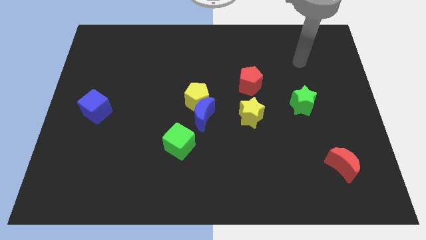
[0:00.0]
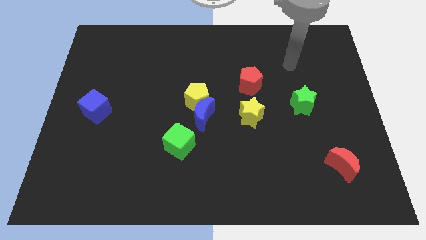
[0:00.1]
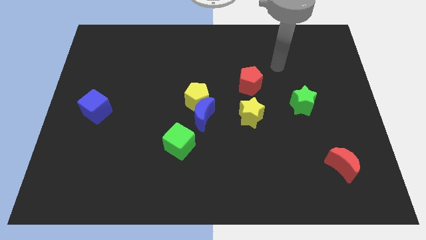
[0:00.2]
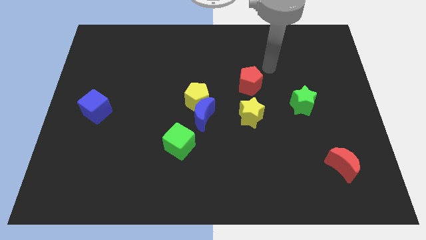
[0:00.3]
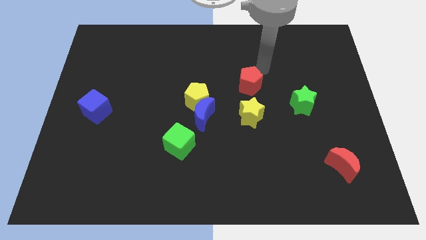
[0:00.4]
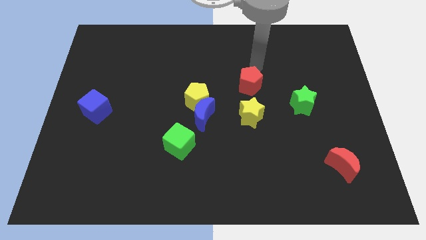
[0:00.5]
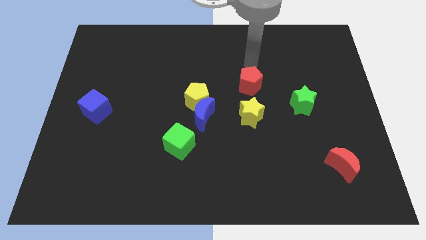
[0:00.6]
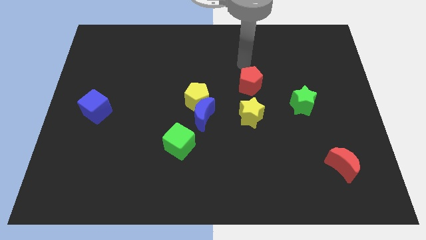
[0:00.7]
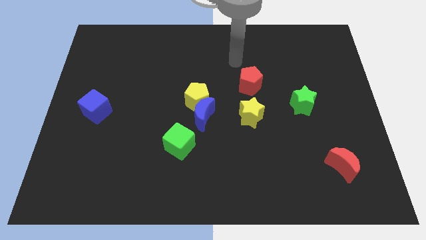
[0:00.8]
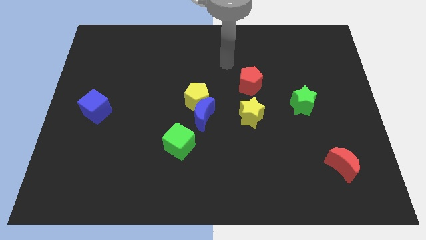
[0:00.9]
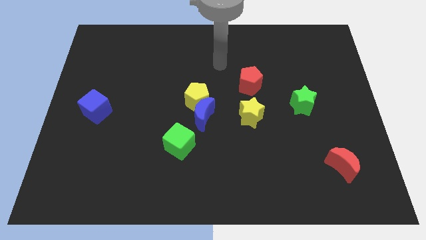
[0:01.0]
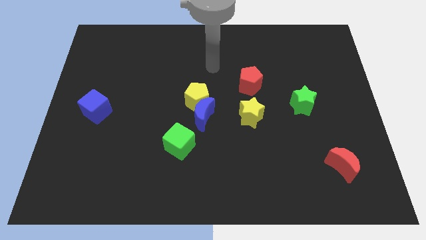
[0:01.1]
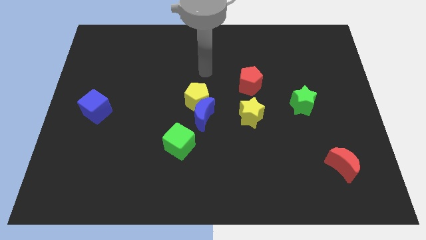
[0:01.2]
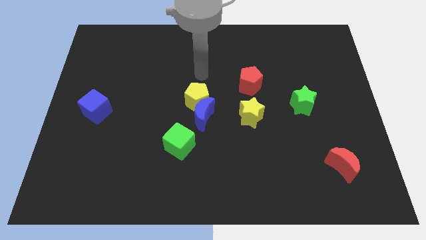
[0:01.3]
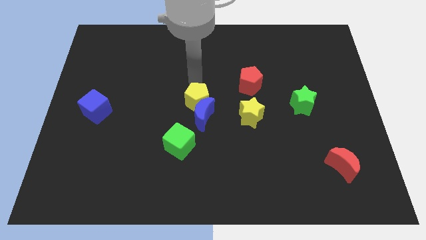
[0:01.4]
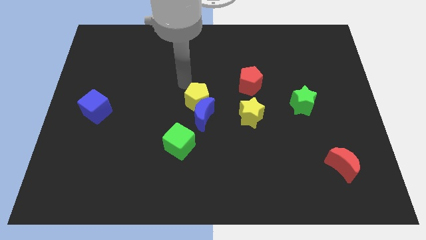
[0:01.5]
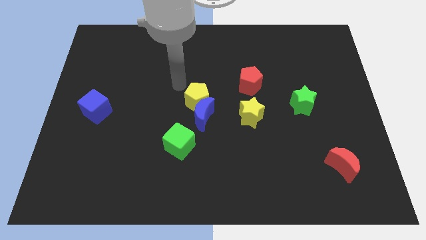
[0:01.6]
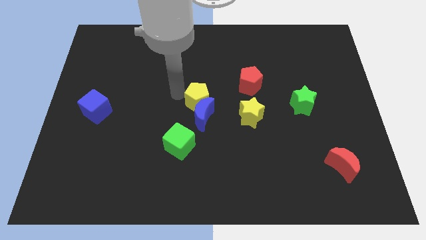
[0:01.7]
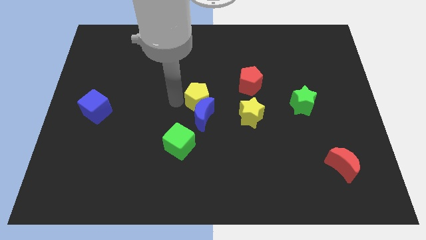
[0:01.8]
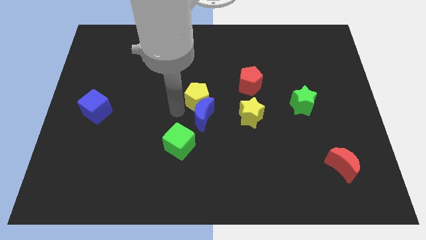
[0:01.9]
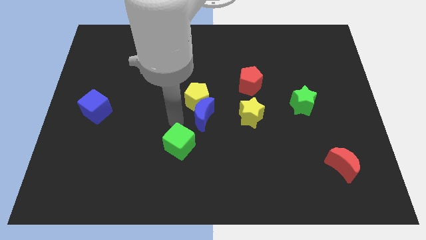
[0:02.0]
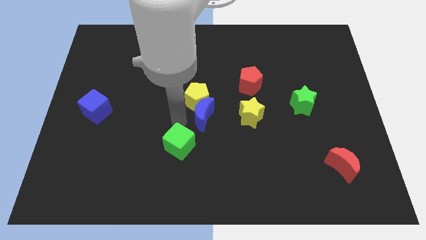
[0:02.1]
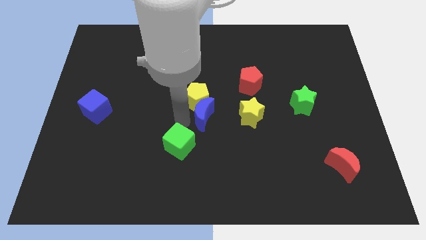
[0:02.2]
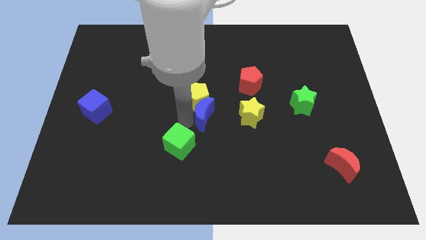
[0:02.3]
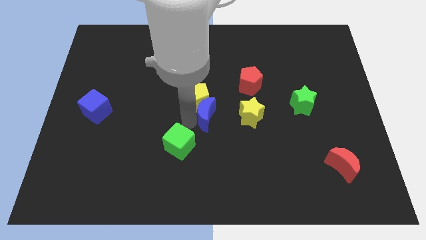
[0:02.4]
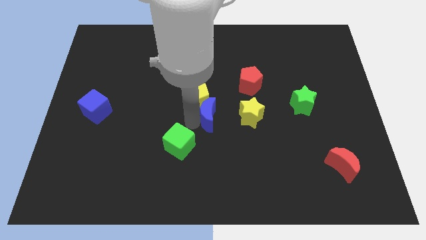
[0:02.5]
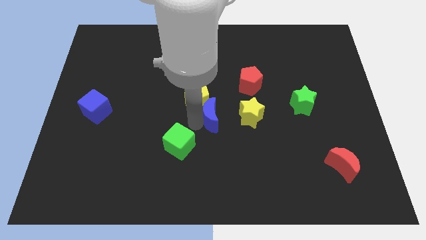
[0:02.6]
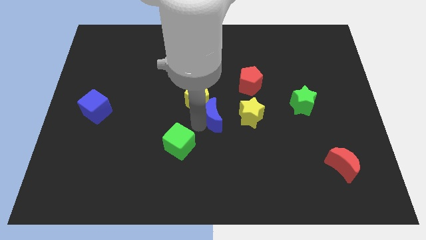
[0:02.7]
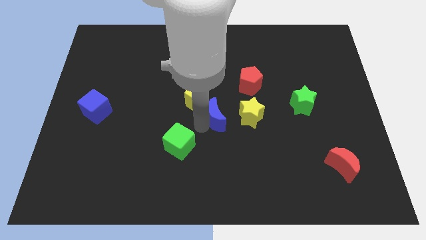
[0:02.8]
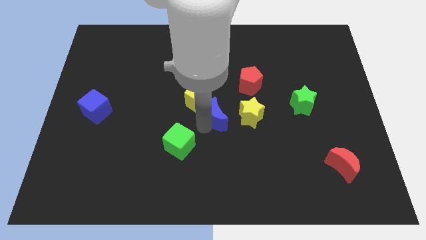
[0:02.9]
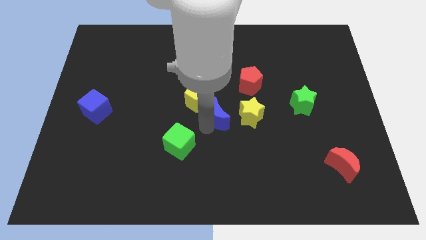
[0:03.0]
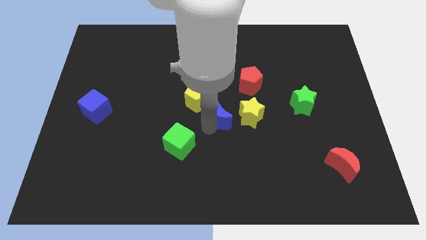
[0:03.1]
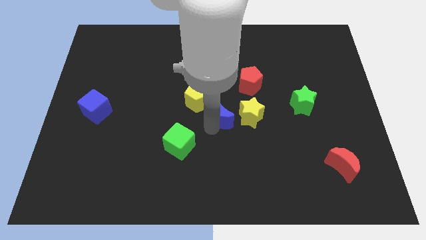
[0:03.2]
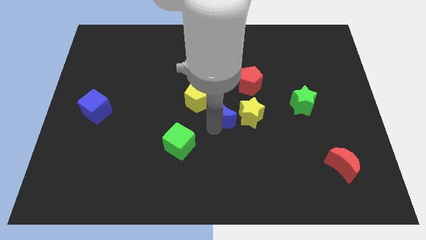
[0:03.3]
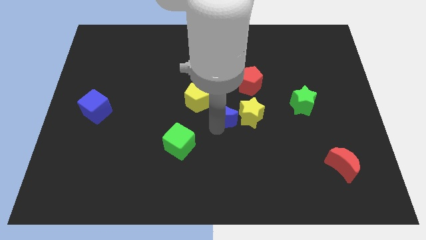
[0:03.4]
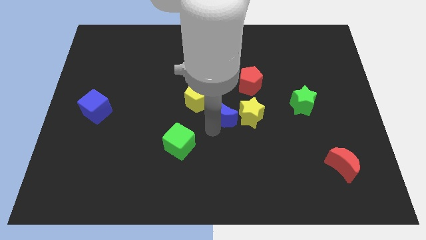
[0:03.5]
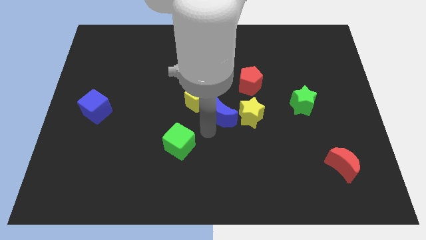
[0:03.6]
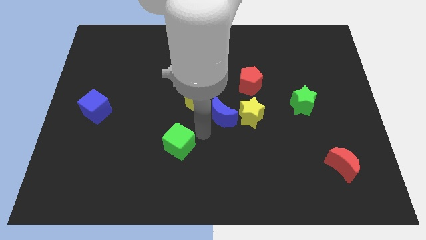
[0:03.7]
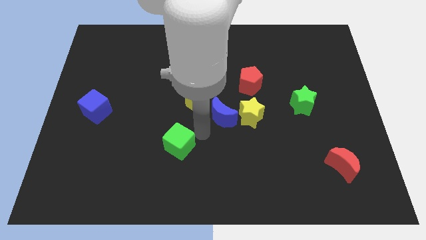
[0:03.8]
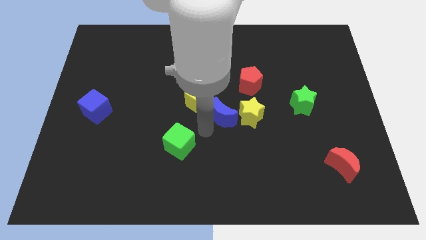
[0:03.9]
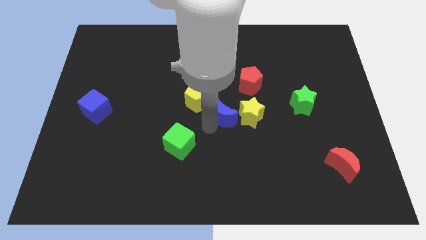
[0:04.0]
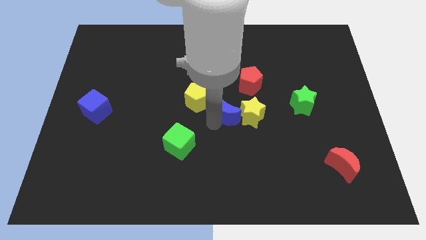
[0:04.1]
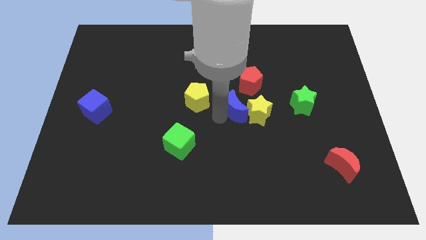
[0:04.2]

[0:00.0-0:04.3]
slightly push the blue moon right

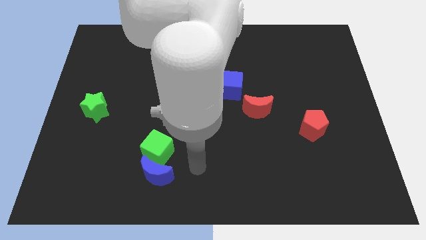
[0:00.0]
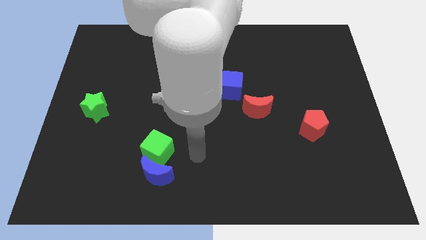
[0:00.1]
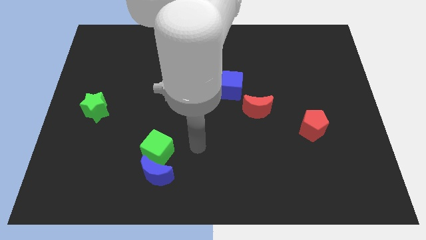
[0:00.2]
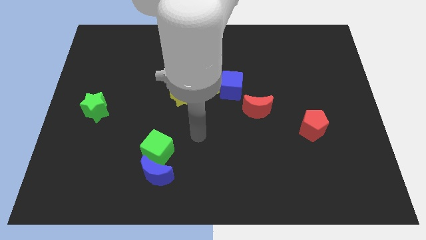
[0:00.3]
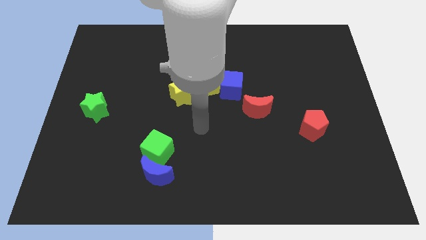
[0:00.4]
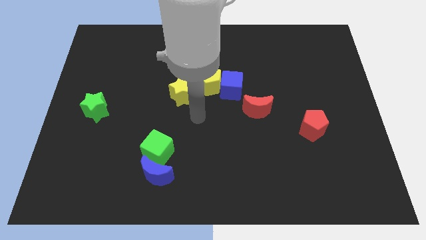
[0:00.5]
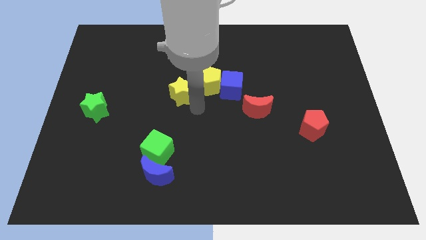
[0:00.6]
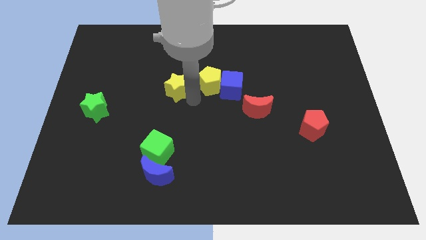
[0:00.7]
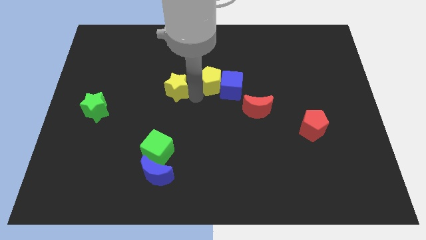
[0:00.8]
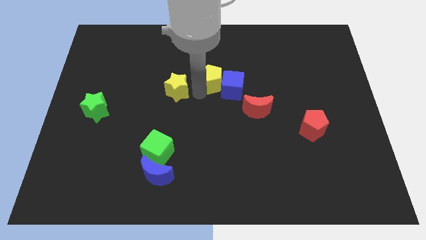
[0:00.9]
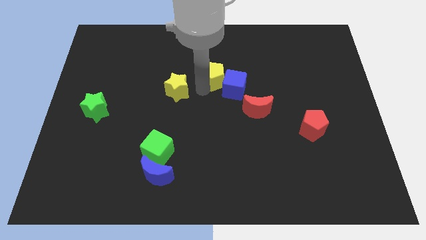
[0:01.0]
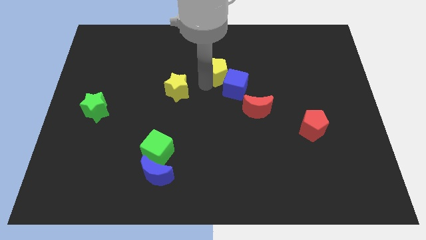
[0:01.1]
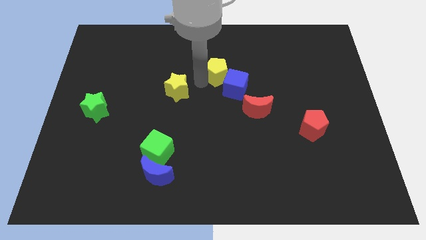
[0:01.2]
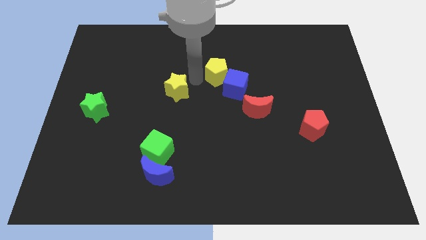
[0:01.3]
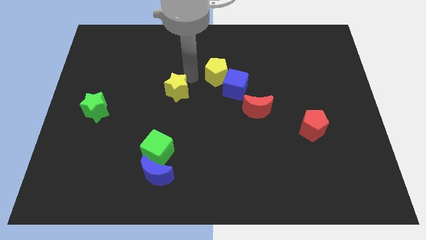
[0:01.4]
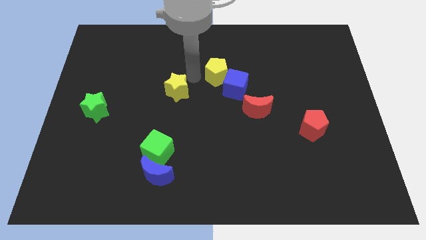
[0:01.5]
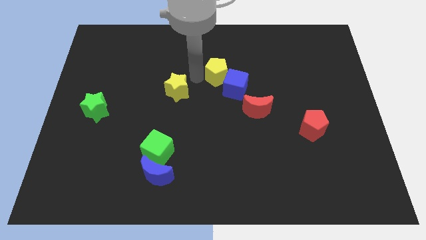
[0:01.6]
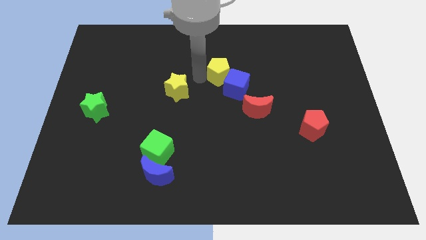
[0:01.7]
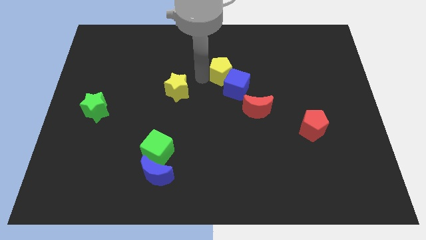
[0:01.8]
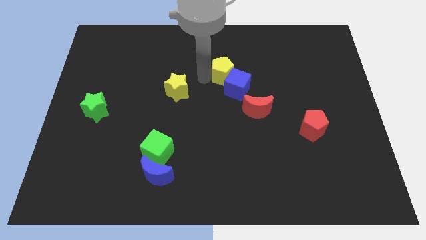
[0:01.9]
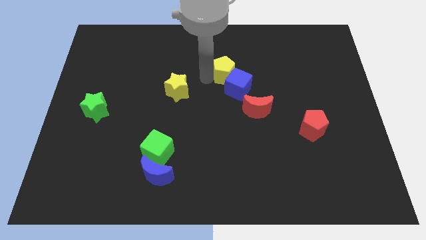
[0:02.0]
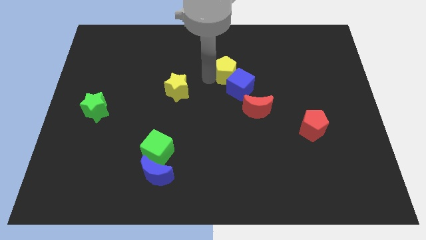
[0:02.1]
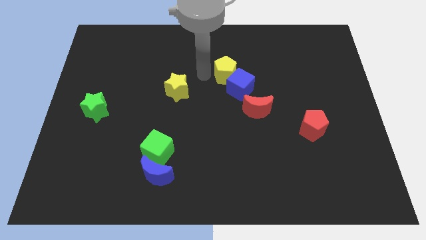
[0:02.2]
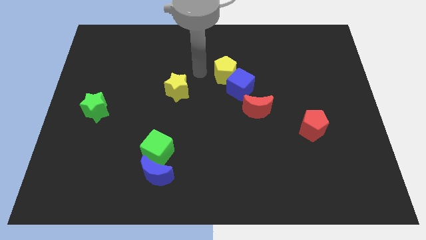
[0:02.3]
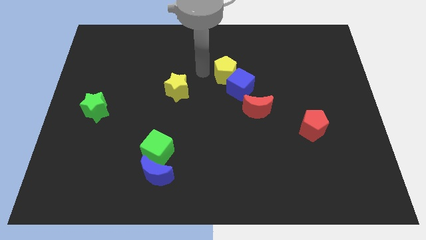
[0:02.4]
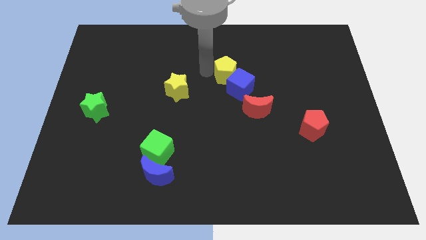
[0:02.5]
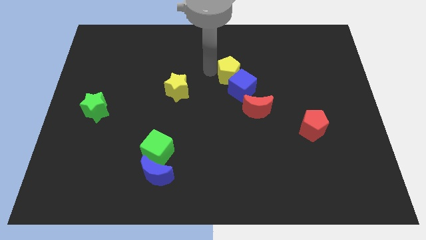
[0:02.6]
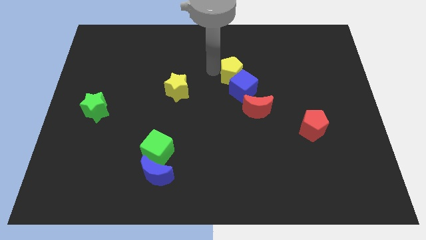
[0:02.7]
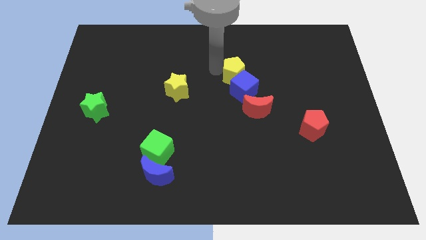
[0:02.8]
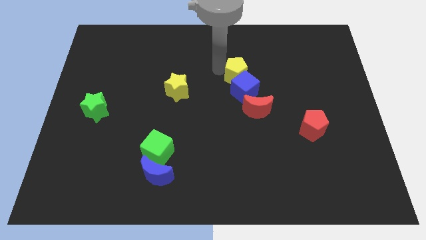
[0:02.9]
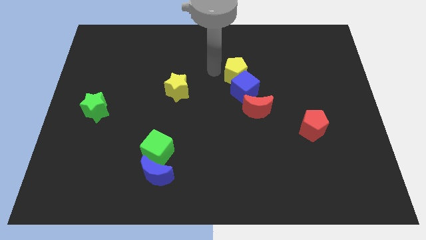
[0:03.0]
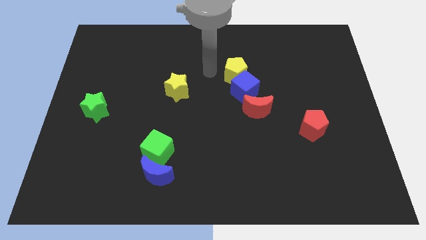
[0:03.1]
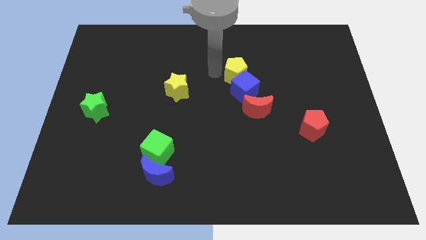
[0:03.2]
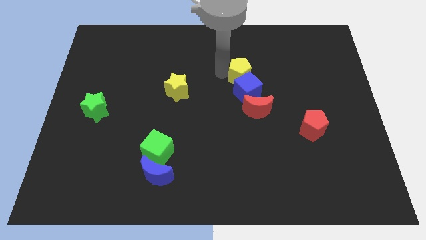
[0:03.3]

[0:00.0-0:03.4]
slightly move the yellow pentagon to the right

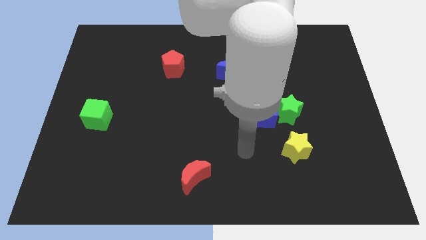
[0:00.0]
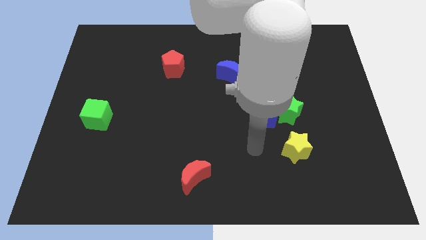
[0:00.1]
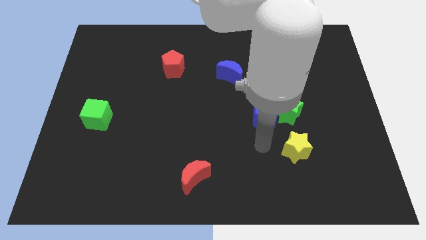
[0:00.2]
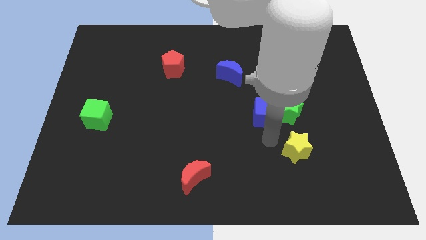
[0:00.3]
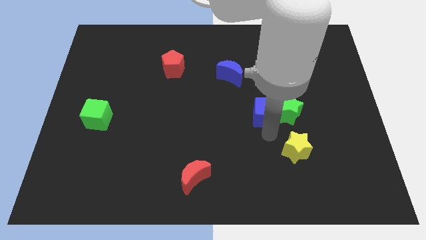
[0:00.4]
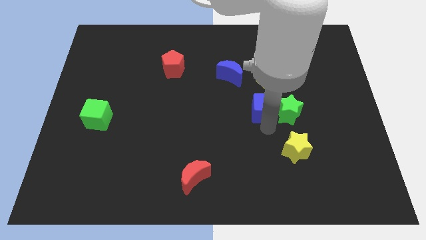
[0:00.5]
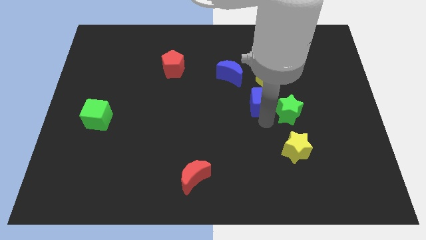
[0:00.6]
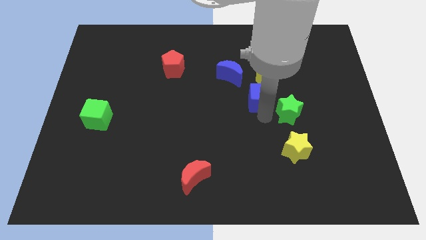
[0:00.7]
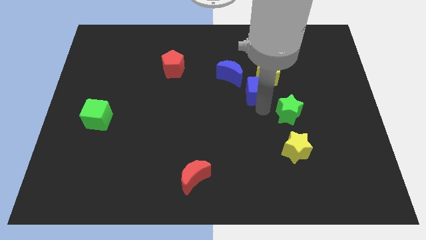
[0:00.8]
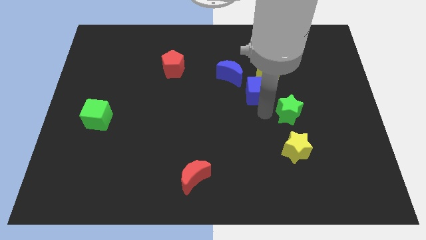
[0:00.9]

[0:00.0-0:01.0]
slide the blue cube up a bit
